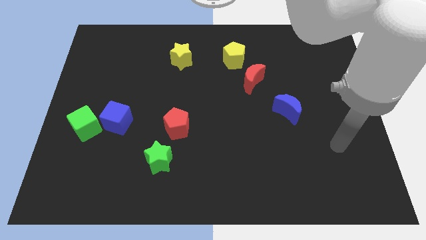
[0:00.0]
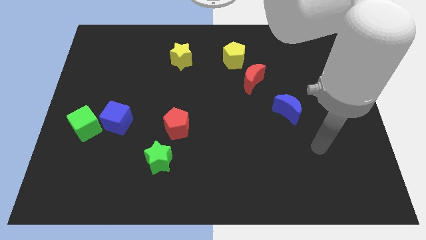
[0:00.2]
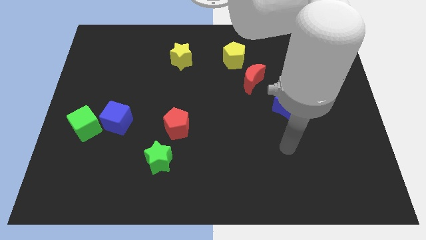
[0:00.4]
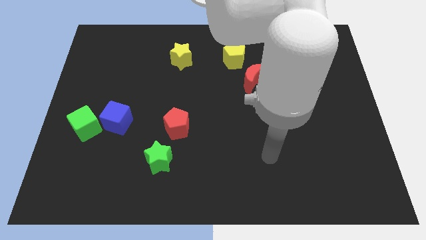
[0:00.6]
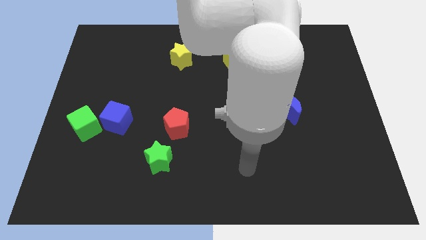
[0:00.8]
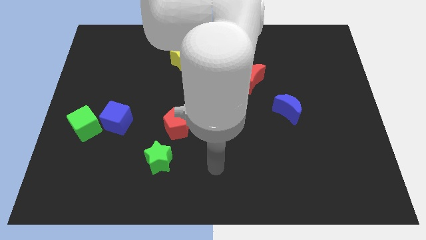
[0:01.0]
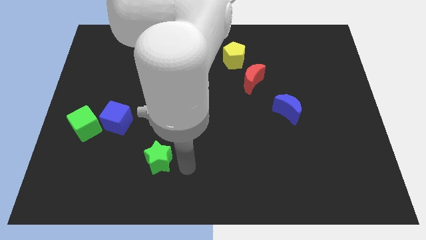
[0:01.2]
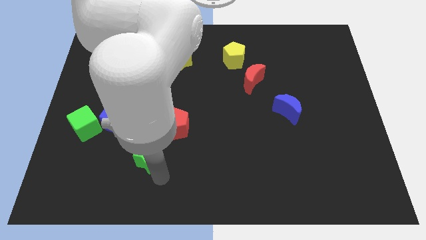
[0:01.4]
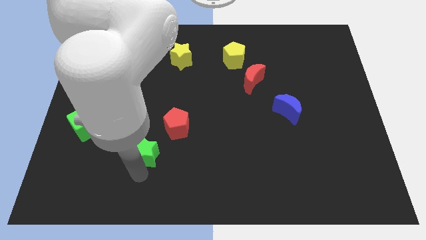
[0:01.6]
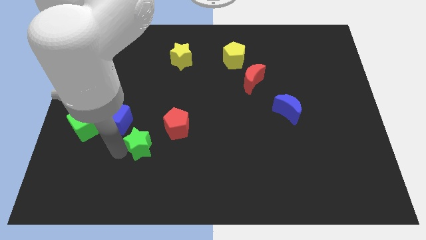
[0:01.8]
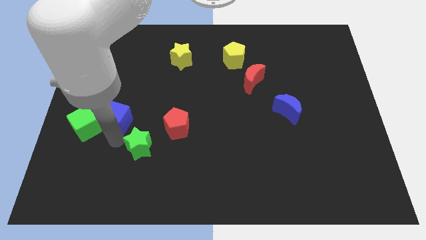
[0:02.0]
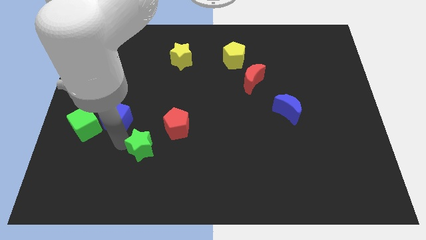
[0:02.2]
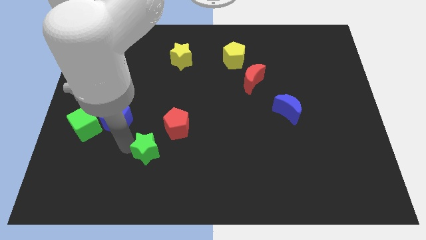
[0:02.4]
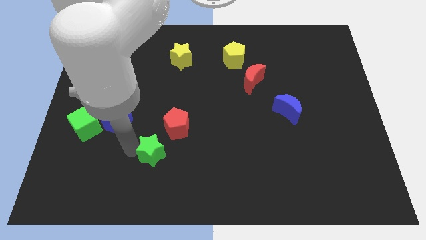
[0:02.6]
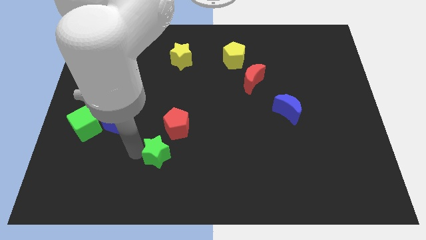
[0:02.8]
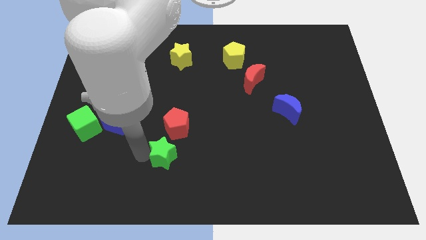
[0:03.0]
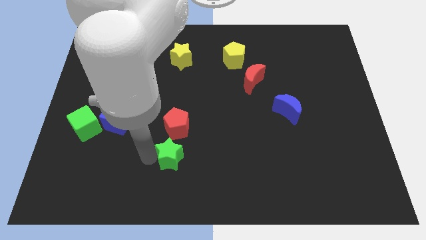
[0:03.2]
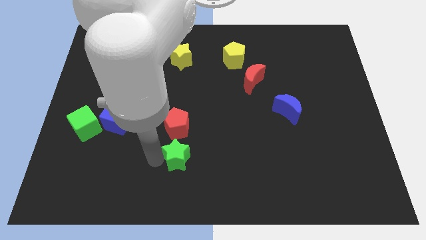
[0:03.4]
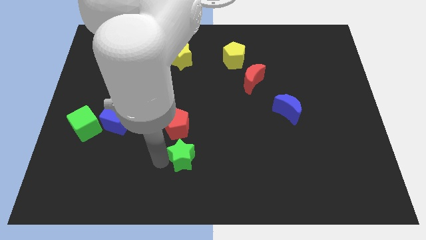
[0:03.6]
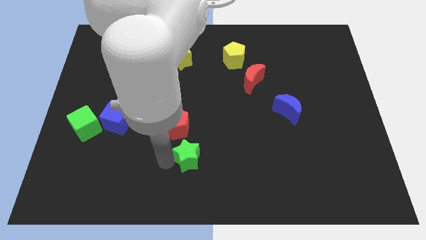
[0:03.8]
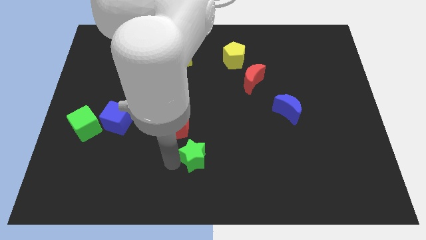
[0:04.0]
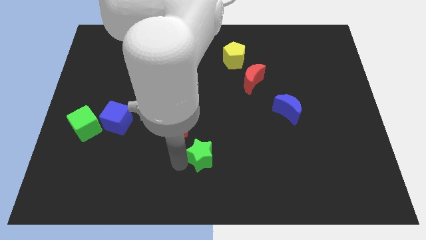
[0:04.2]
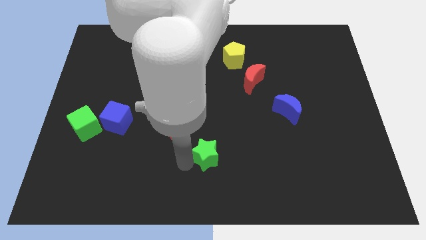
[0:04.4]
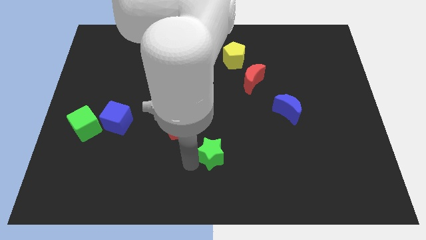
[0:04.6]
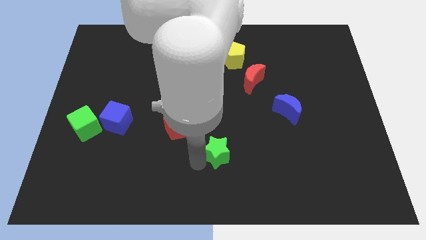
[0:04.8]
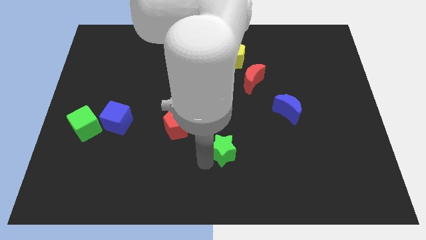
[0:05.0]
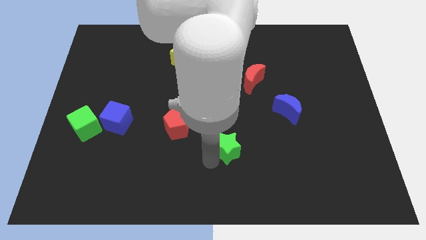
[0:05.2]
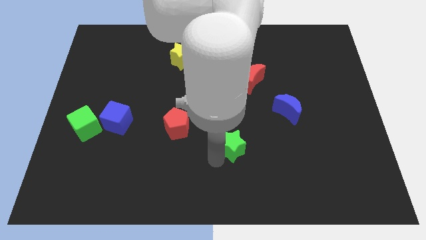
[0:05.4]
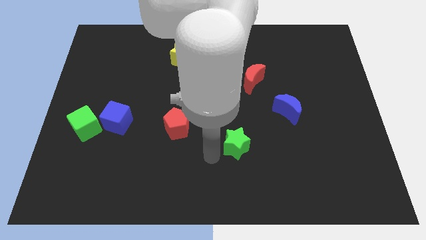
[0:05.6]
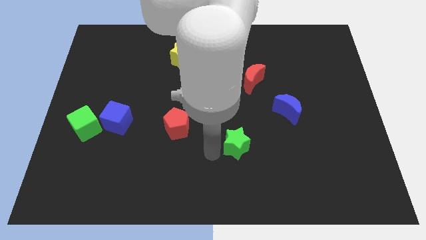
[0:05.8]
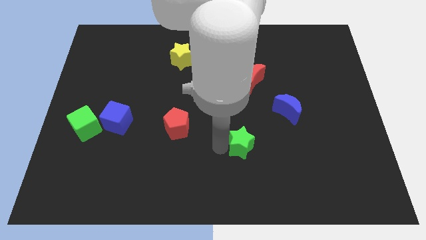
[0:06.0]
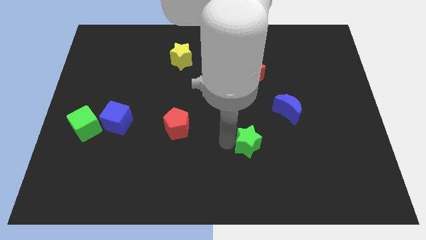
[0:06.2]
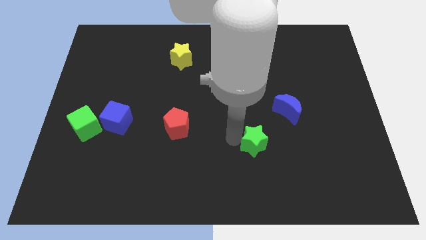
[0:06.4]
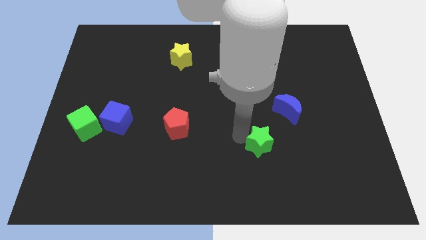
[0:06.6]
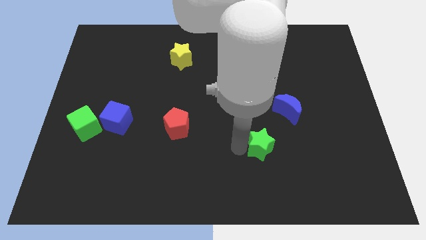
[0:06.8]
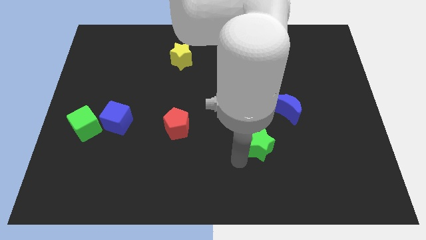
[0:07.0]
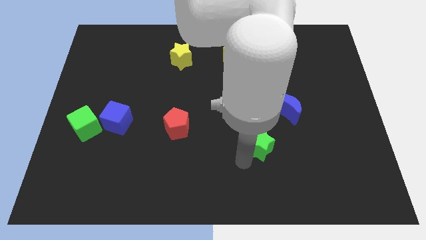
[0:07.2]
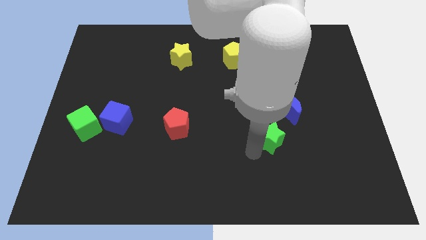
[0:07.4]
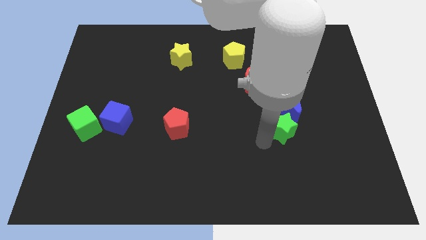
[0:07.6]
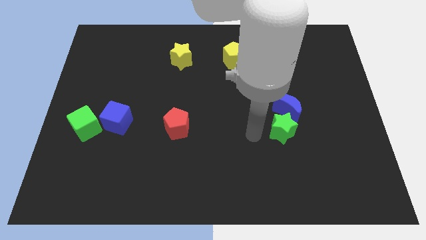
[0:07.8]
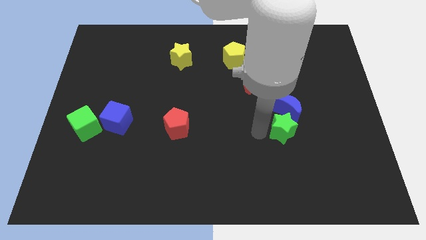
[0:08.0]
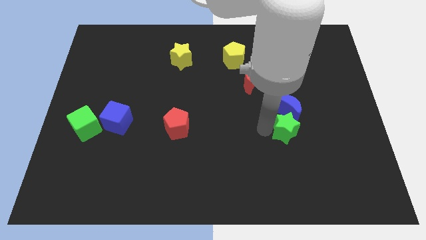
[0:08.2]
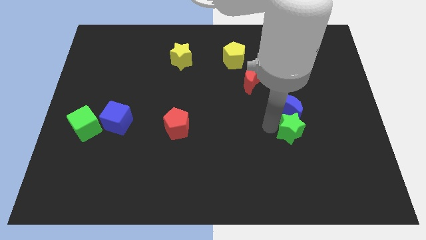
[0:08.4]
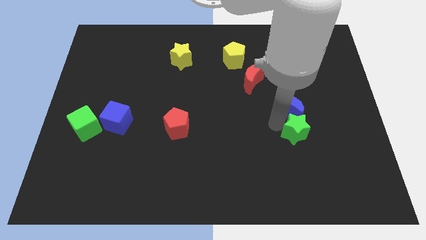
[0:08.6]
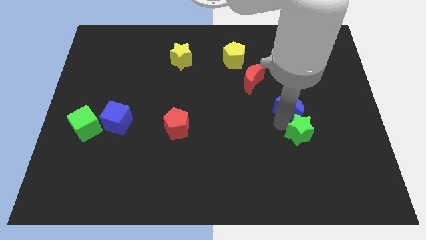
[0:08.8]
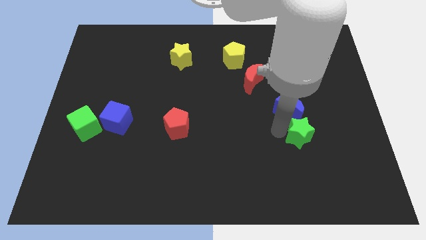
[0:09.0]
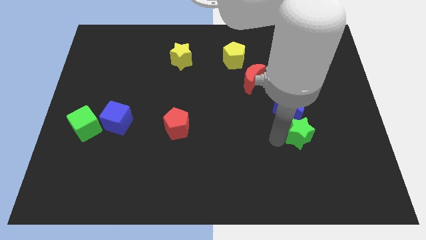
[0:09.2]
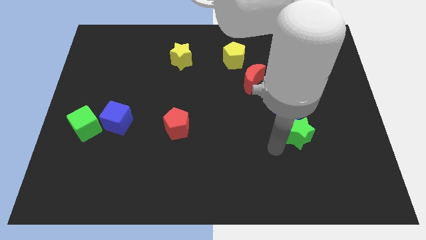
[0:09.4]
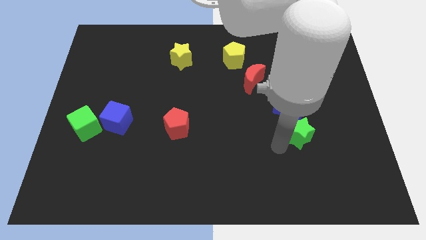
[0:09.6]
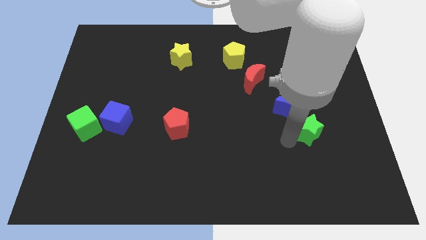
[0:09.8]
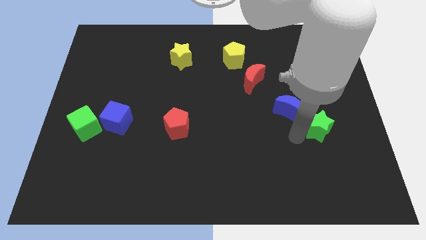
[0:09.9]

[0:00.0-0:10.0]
move the green star to the right of the blue moon

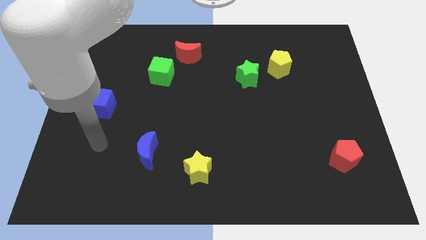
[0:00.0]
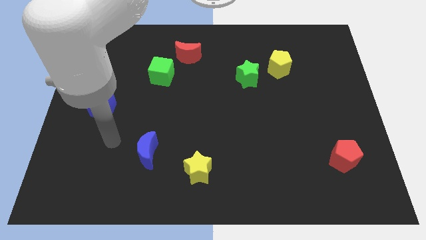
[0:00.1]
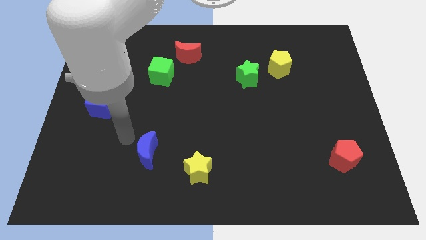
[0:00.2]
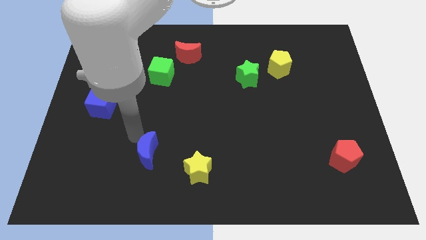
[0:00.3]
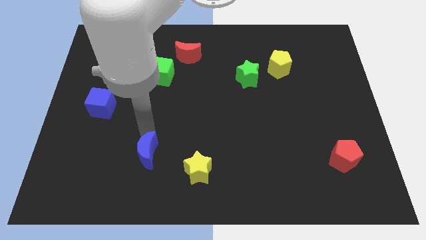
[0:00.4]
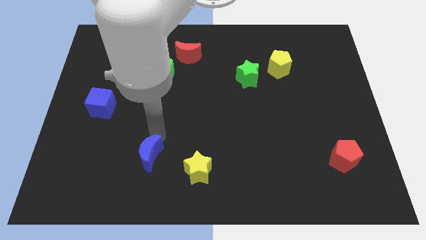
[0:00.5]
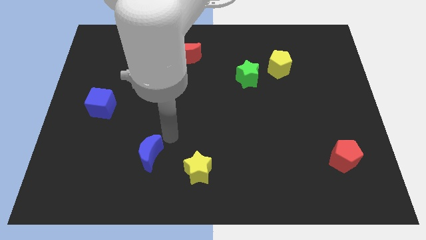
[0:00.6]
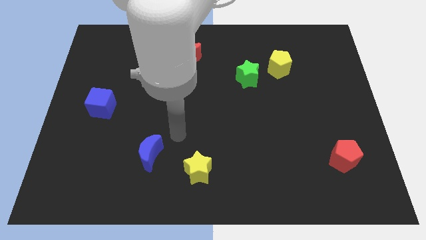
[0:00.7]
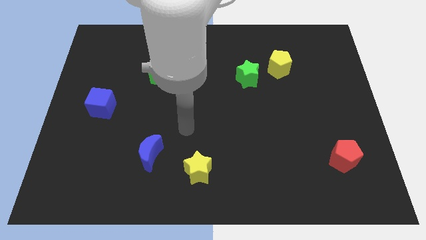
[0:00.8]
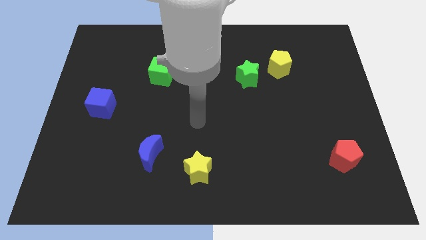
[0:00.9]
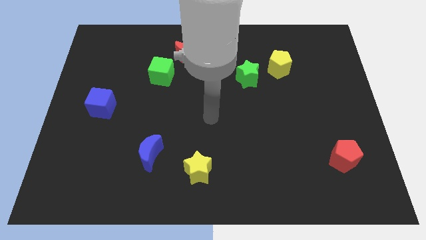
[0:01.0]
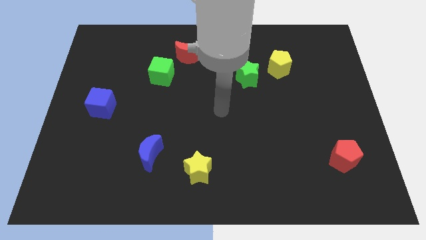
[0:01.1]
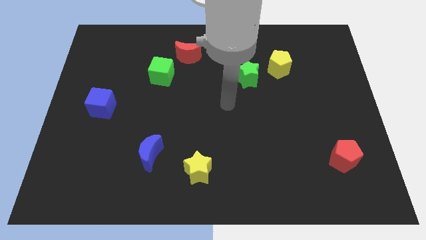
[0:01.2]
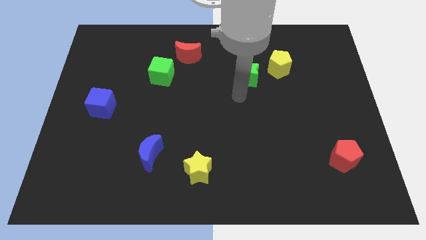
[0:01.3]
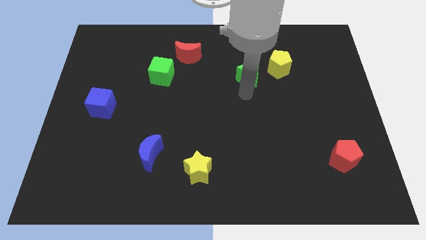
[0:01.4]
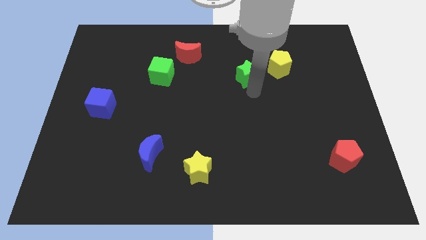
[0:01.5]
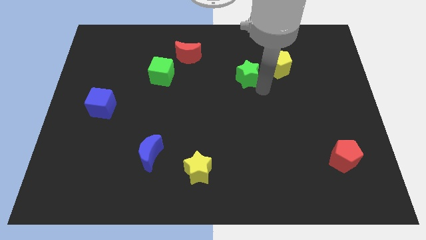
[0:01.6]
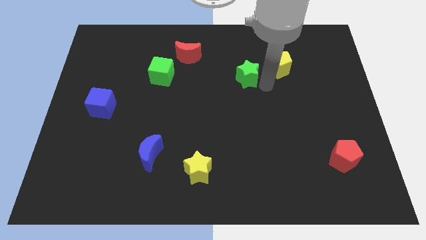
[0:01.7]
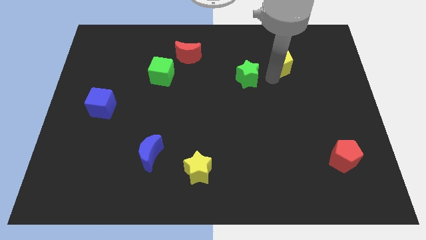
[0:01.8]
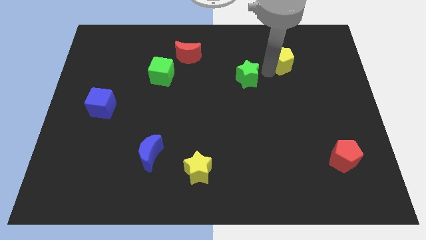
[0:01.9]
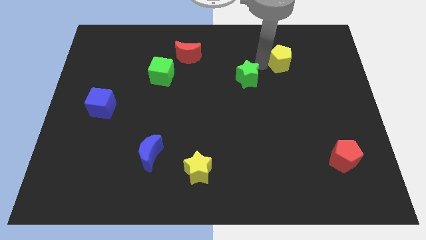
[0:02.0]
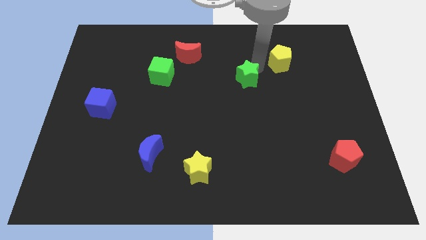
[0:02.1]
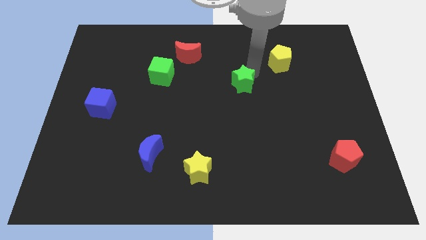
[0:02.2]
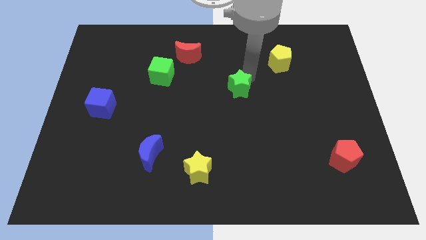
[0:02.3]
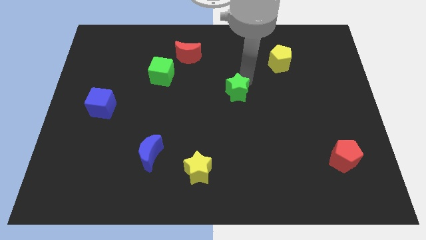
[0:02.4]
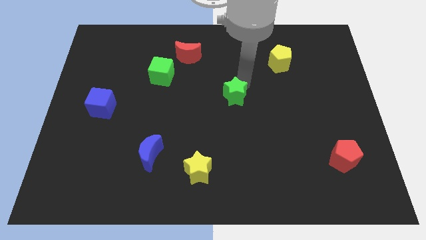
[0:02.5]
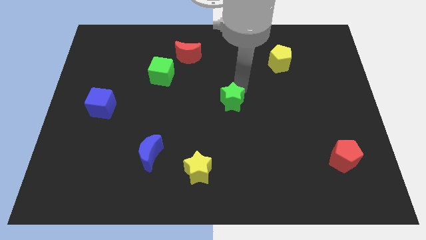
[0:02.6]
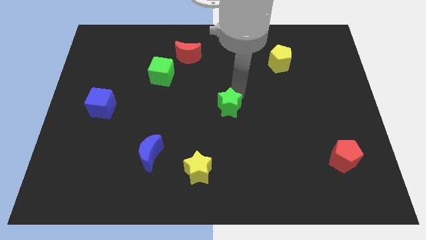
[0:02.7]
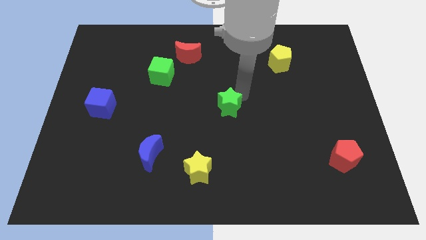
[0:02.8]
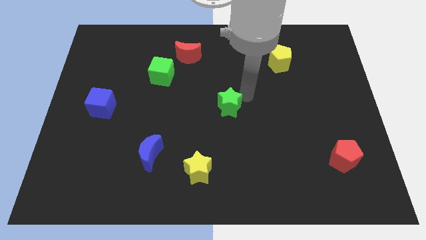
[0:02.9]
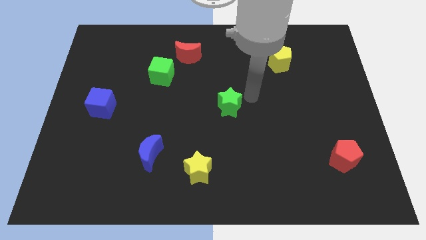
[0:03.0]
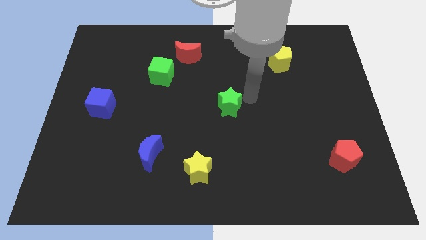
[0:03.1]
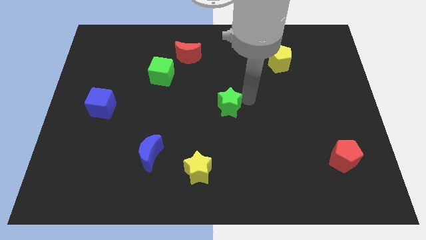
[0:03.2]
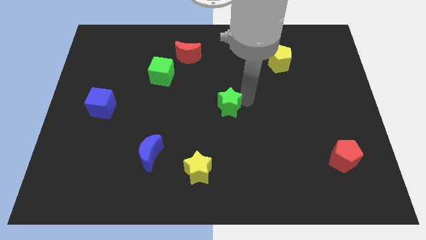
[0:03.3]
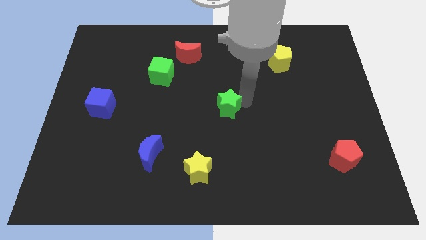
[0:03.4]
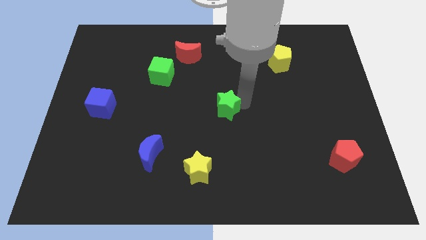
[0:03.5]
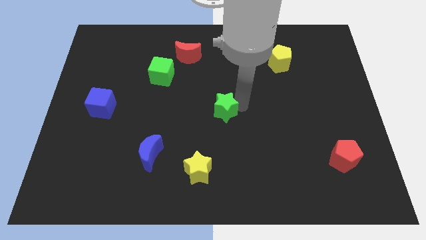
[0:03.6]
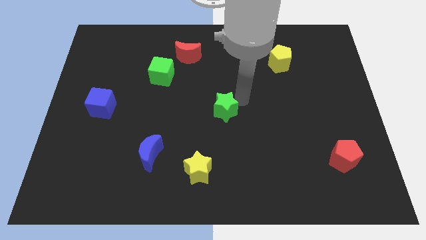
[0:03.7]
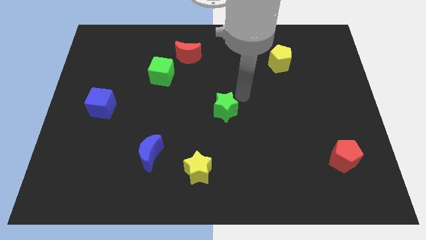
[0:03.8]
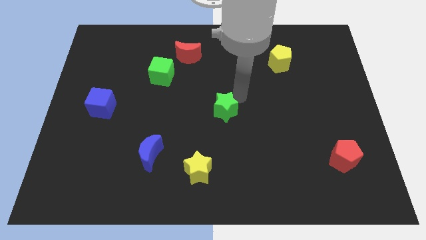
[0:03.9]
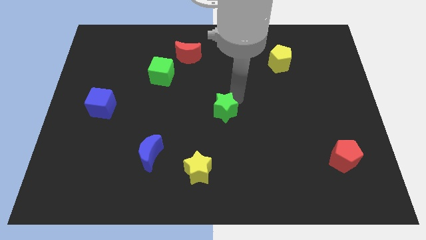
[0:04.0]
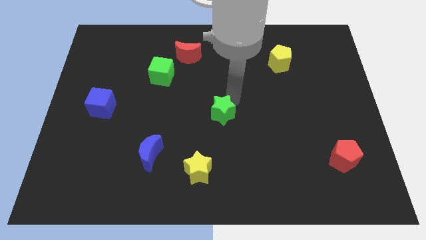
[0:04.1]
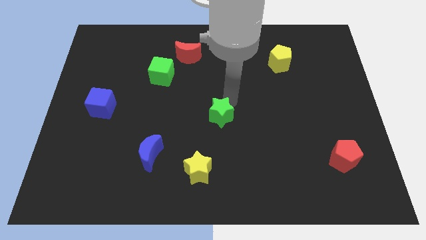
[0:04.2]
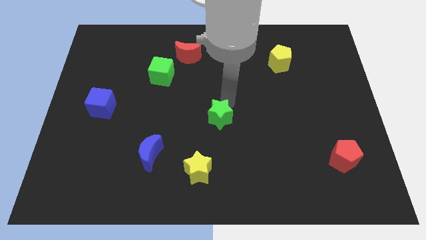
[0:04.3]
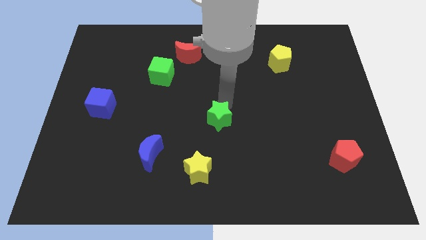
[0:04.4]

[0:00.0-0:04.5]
move the green star to the top side of the yellow star
